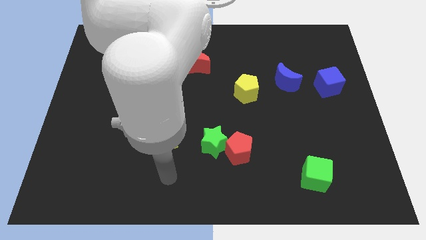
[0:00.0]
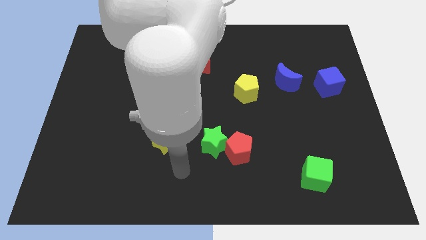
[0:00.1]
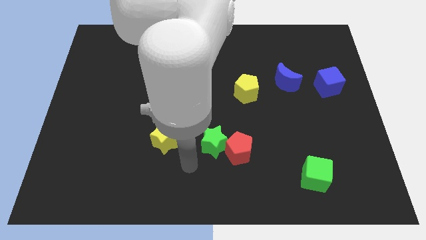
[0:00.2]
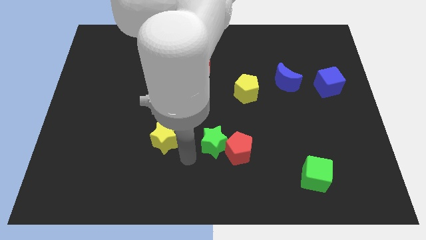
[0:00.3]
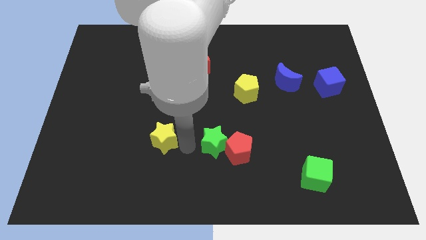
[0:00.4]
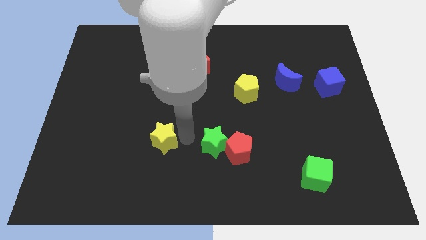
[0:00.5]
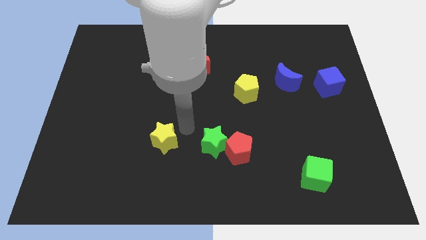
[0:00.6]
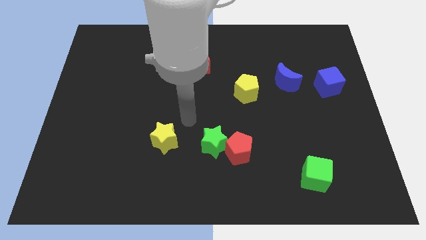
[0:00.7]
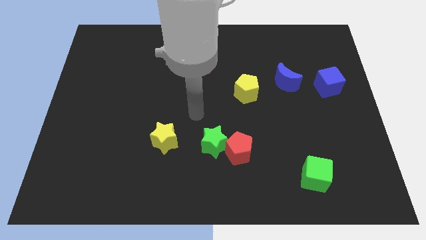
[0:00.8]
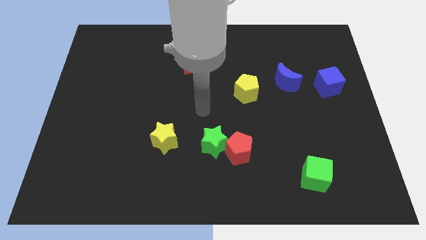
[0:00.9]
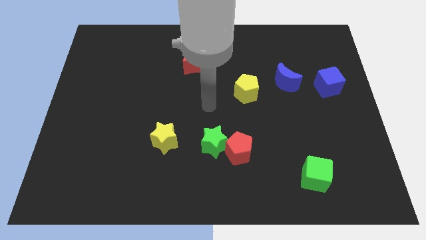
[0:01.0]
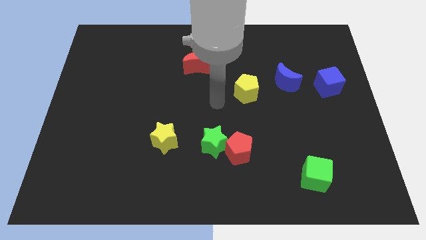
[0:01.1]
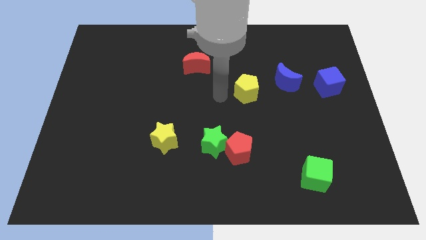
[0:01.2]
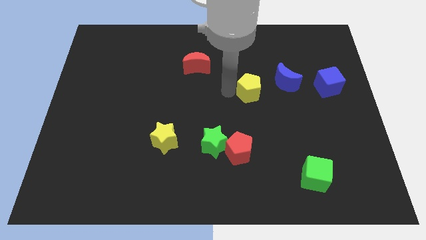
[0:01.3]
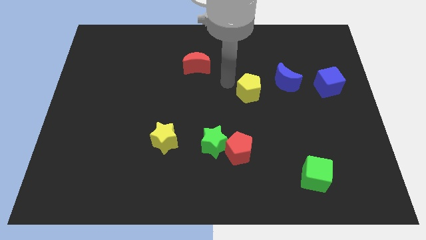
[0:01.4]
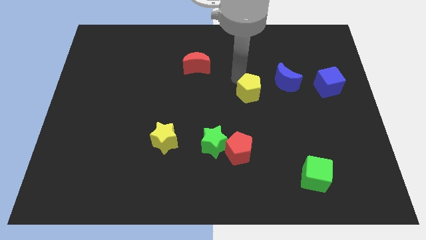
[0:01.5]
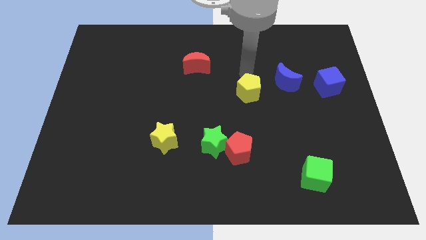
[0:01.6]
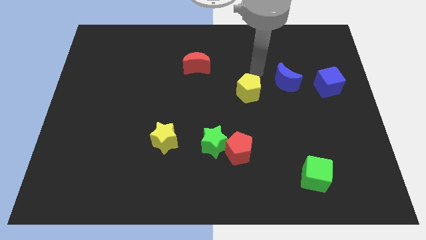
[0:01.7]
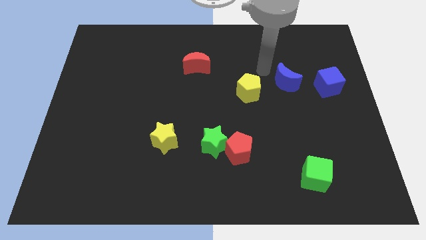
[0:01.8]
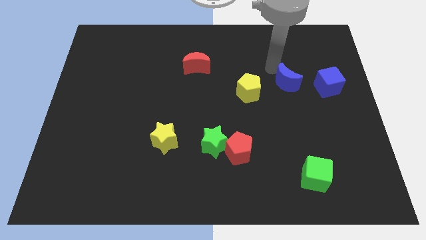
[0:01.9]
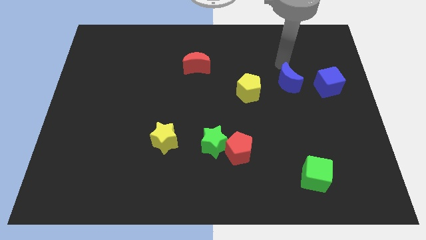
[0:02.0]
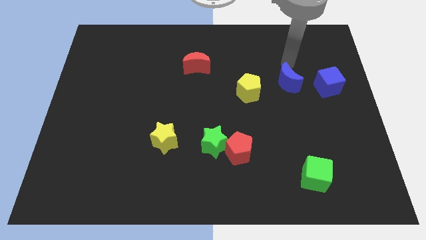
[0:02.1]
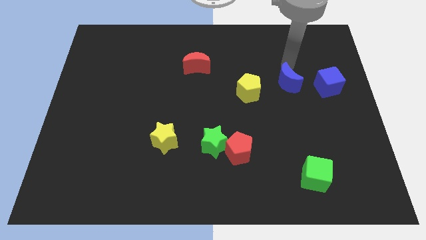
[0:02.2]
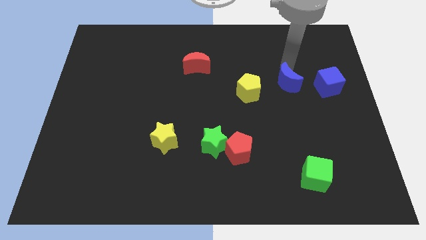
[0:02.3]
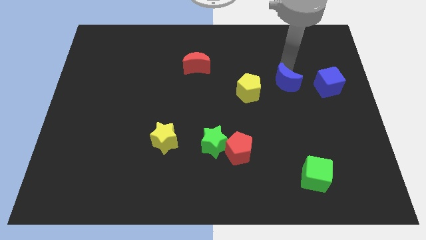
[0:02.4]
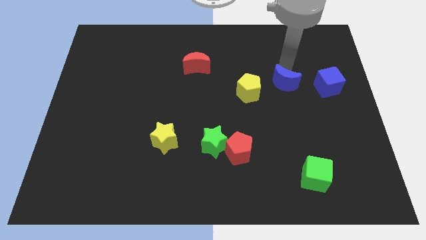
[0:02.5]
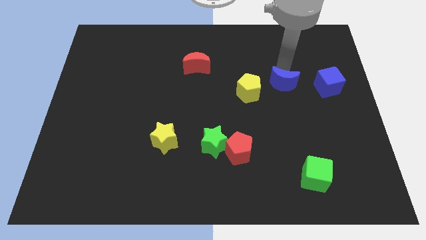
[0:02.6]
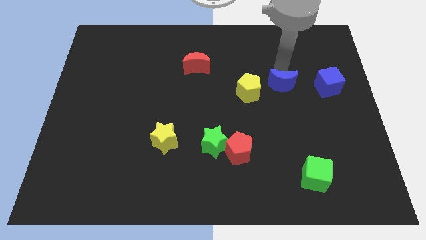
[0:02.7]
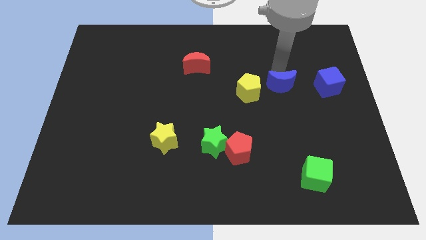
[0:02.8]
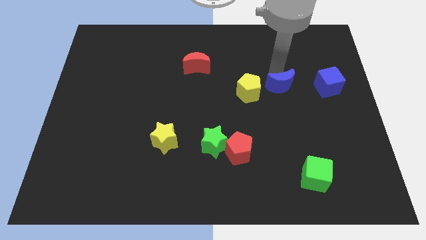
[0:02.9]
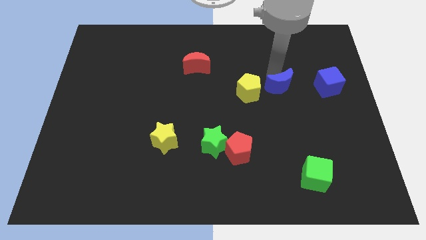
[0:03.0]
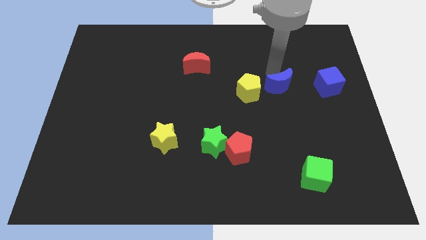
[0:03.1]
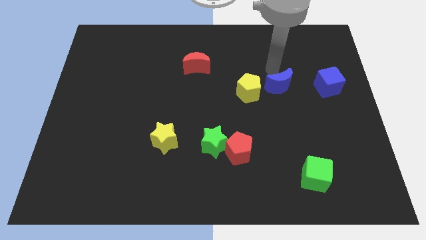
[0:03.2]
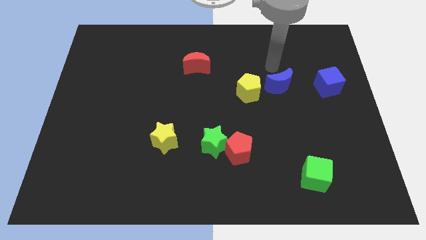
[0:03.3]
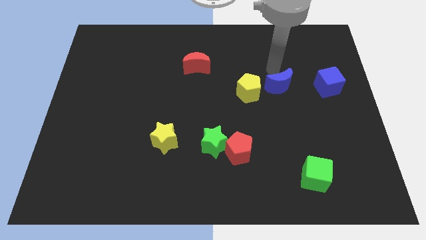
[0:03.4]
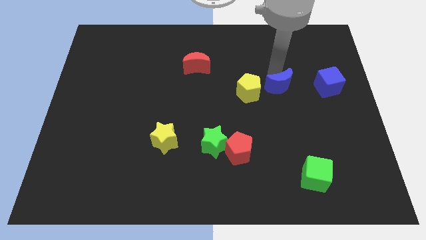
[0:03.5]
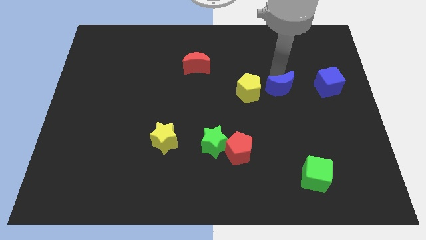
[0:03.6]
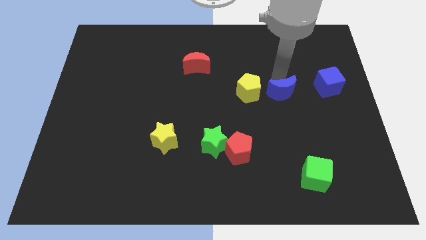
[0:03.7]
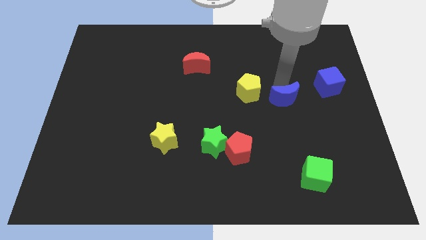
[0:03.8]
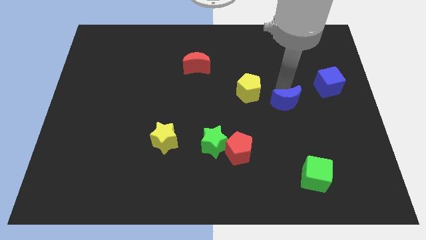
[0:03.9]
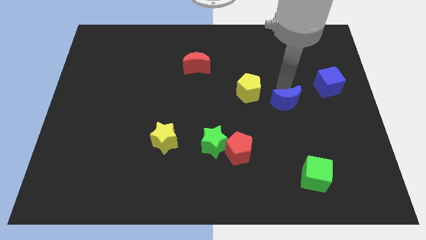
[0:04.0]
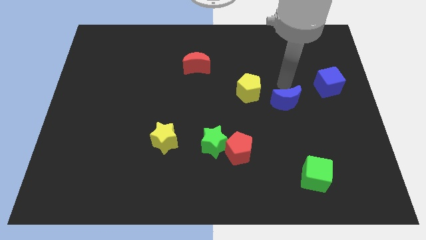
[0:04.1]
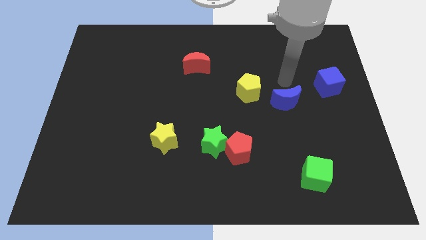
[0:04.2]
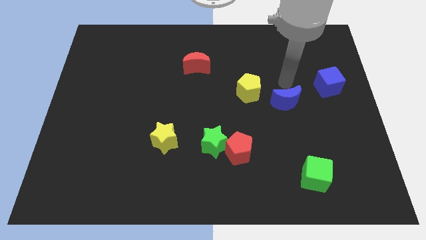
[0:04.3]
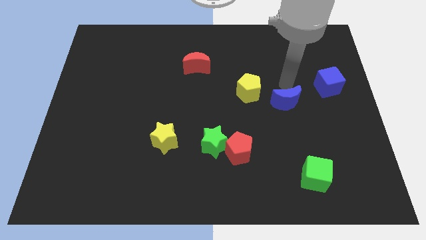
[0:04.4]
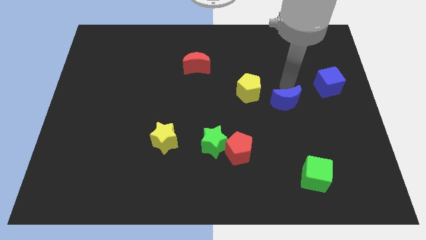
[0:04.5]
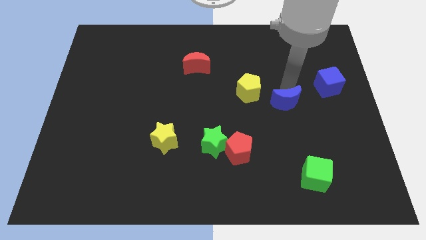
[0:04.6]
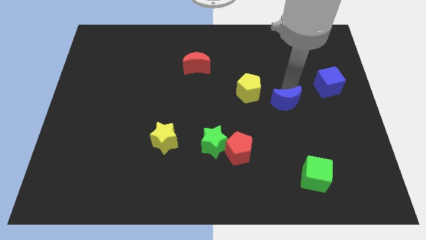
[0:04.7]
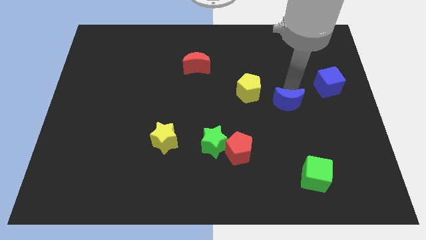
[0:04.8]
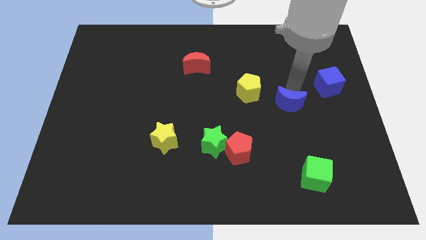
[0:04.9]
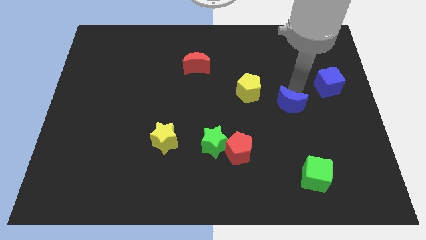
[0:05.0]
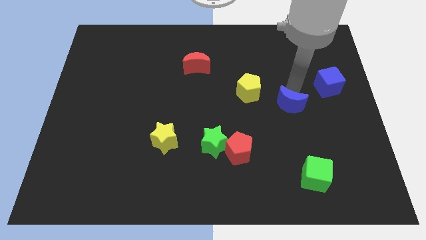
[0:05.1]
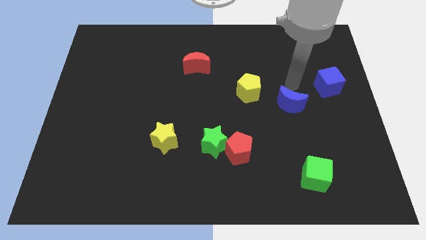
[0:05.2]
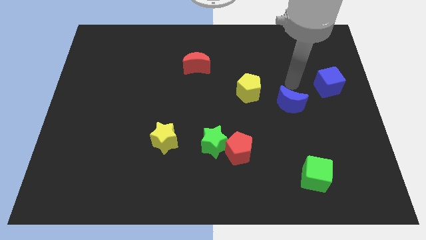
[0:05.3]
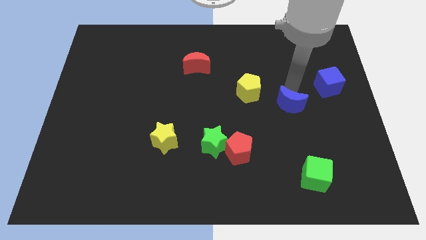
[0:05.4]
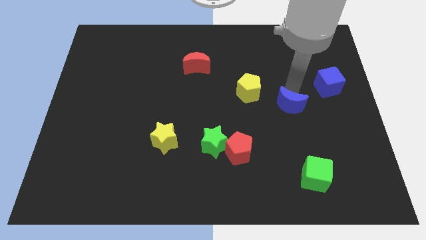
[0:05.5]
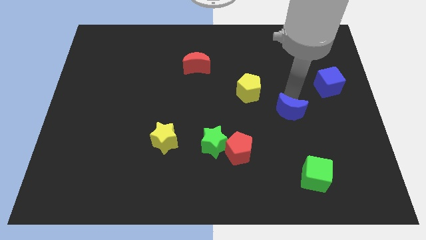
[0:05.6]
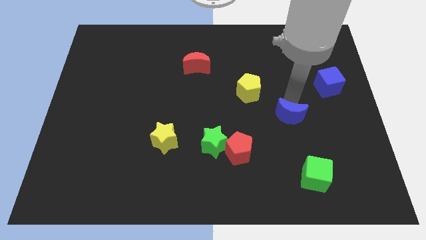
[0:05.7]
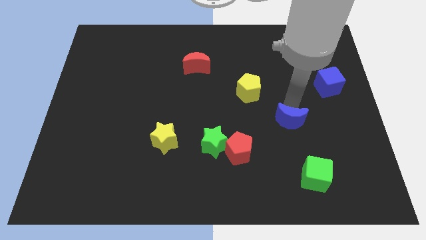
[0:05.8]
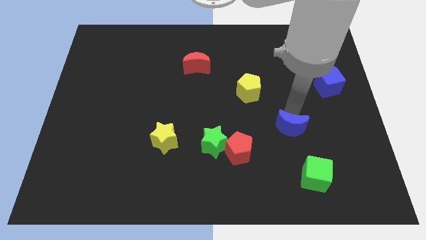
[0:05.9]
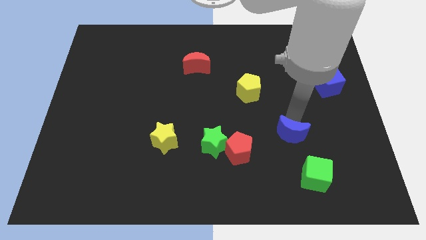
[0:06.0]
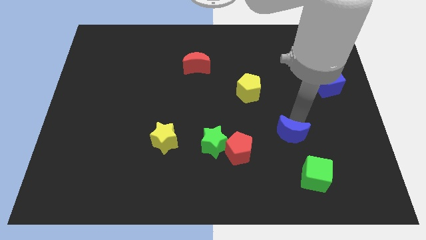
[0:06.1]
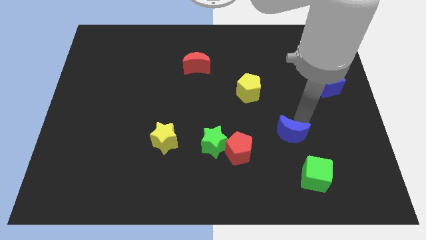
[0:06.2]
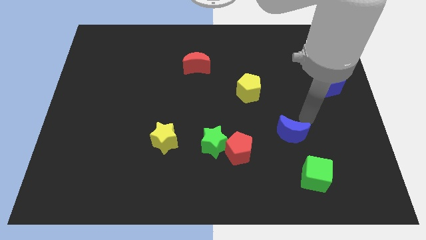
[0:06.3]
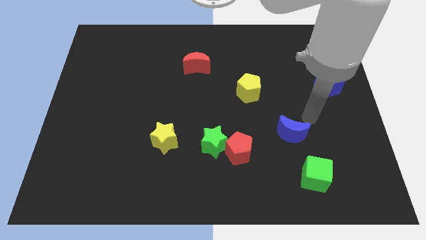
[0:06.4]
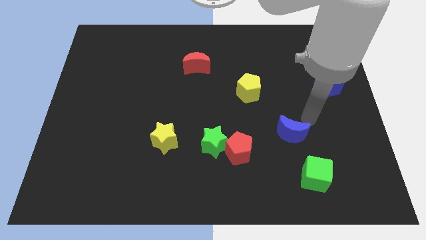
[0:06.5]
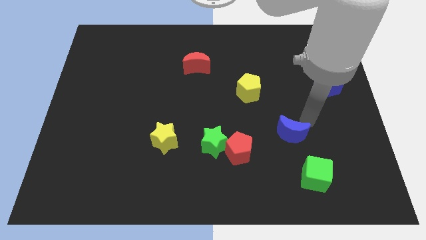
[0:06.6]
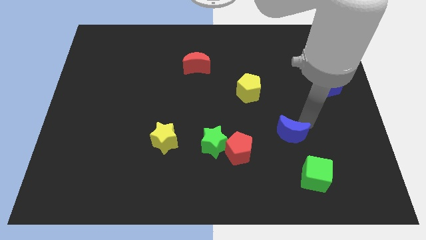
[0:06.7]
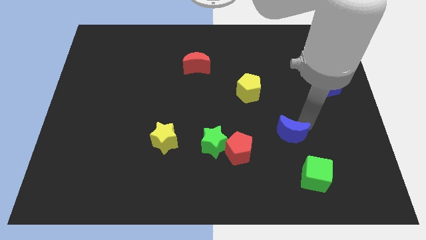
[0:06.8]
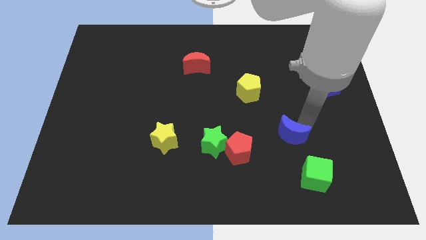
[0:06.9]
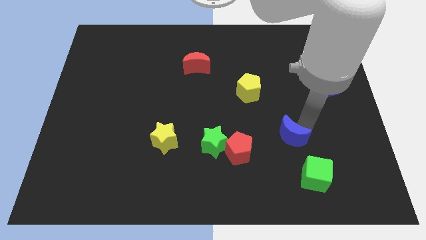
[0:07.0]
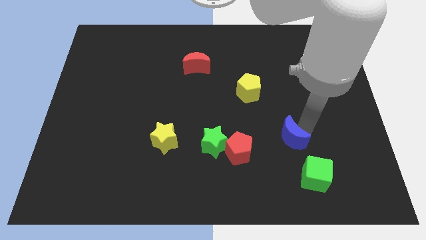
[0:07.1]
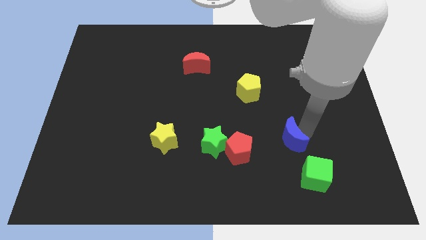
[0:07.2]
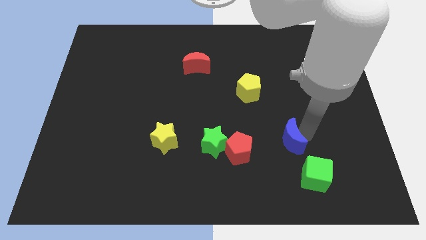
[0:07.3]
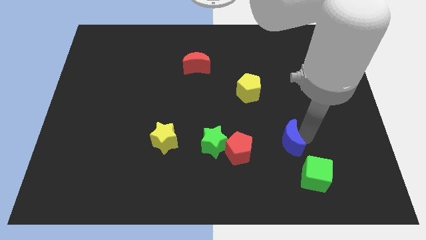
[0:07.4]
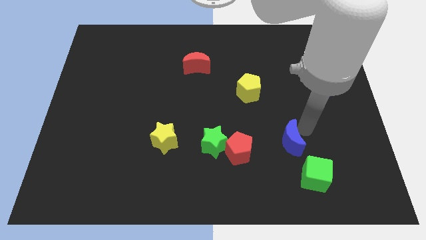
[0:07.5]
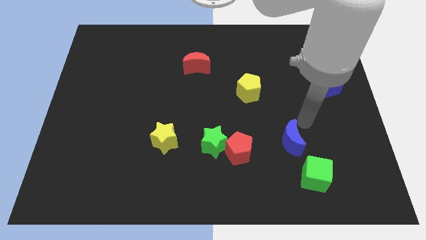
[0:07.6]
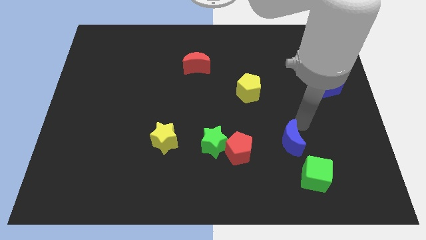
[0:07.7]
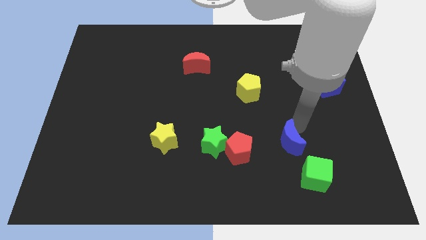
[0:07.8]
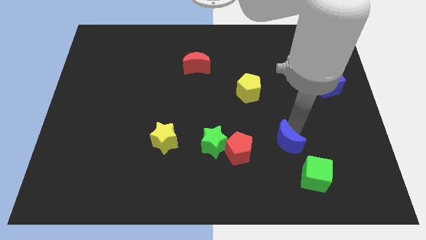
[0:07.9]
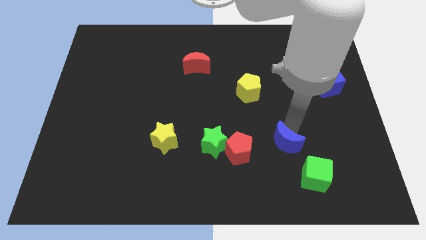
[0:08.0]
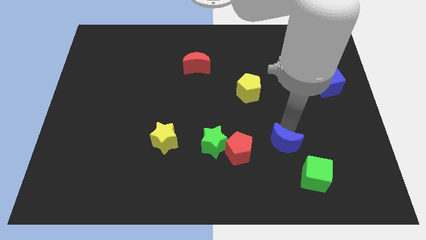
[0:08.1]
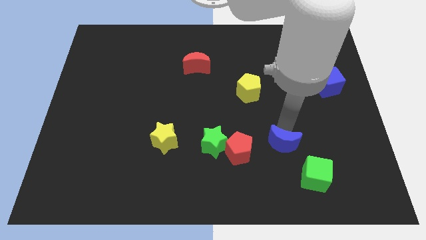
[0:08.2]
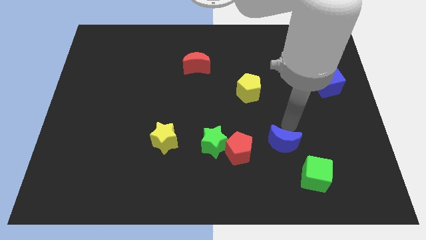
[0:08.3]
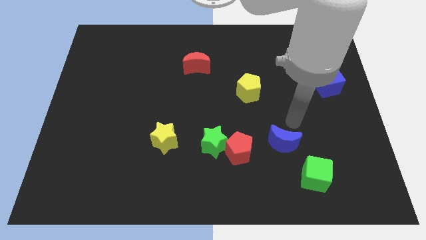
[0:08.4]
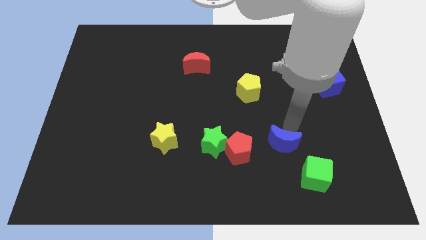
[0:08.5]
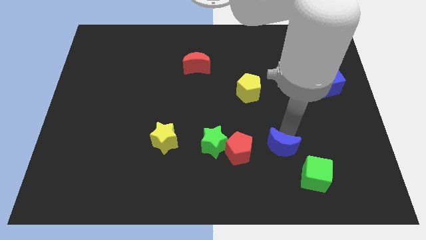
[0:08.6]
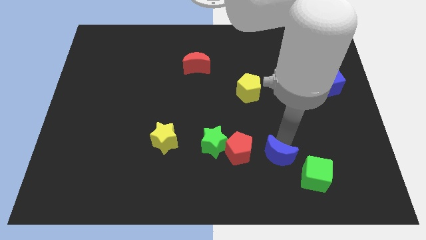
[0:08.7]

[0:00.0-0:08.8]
push the blue moon just left of the green cube
